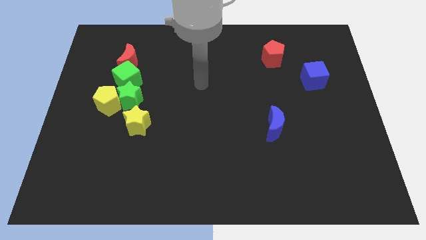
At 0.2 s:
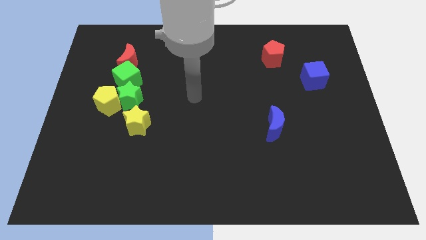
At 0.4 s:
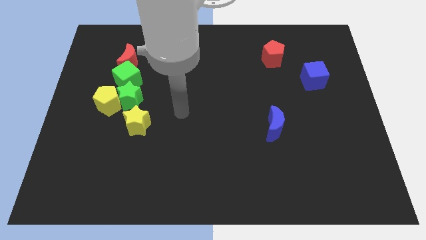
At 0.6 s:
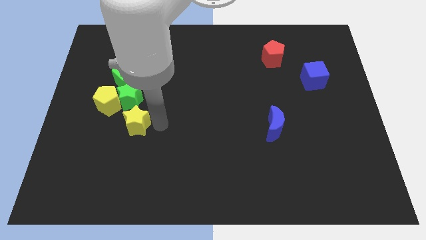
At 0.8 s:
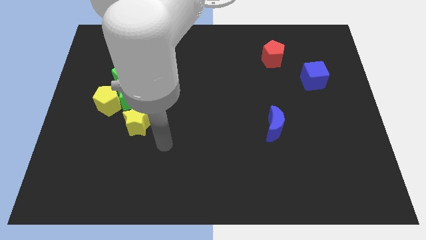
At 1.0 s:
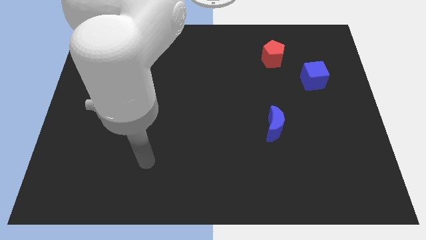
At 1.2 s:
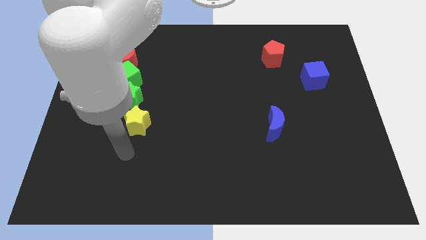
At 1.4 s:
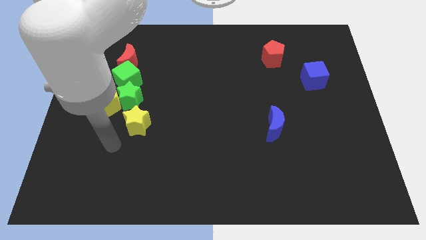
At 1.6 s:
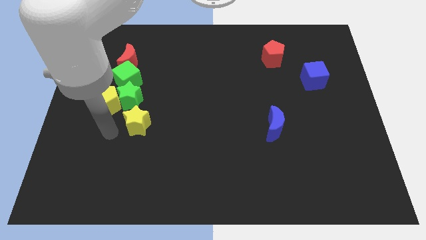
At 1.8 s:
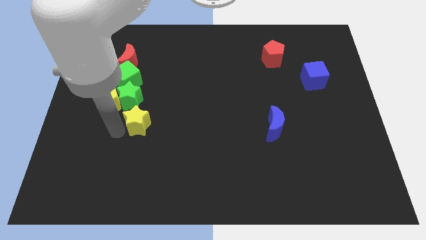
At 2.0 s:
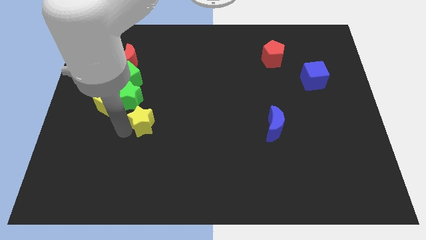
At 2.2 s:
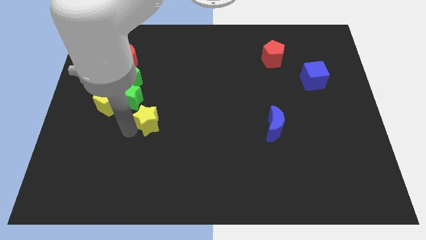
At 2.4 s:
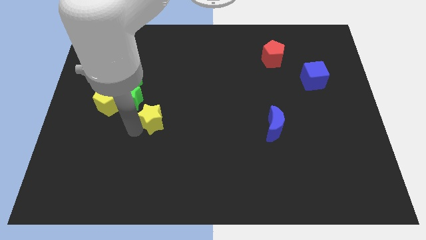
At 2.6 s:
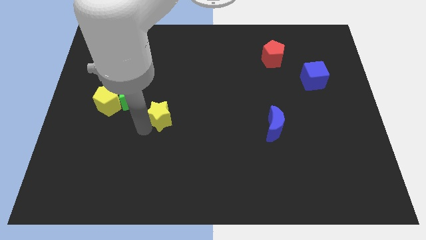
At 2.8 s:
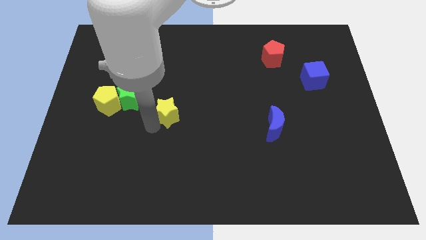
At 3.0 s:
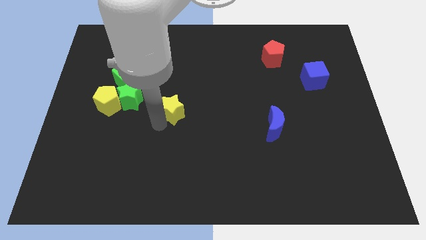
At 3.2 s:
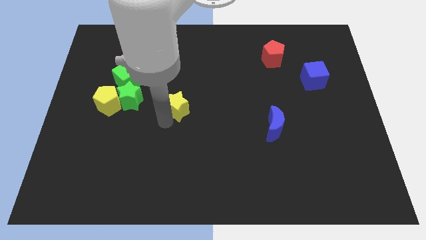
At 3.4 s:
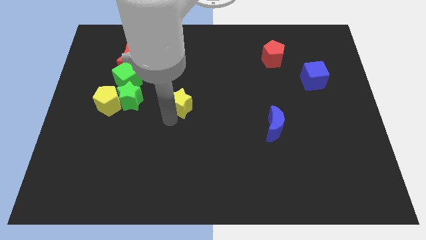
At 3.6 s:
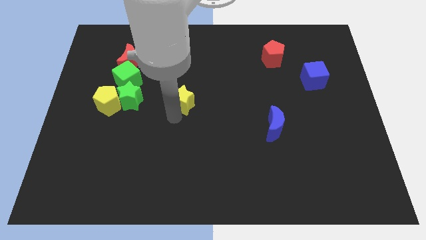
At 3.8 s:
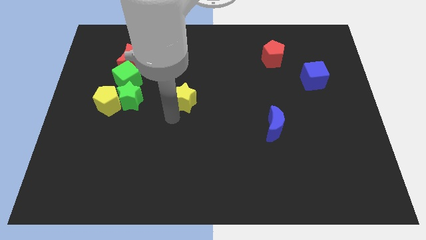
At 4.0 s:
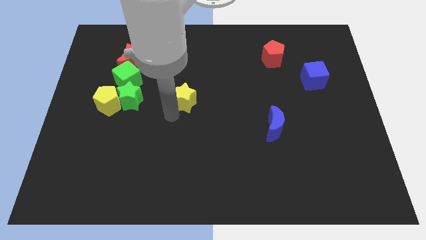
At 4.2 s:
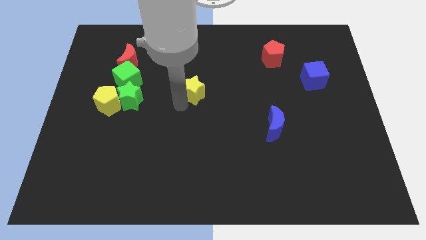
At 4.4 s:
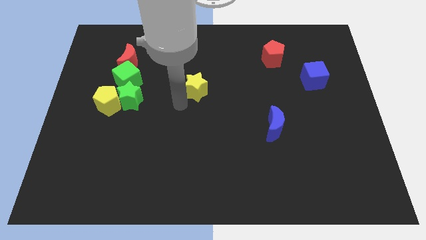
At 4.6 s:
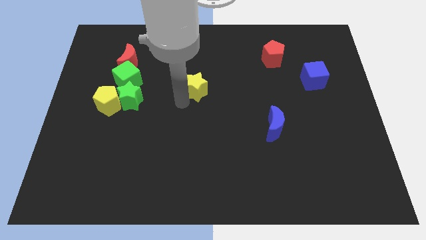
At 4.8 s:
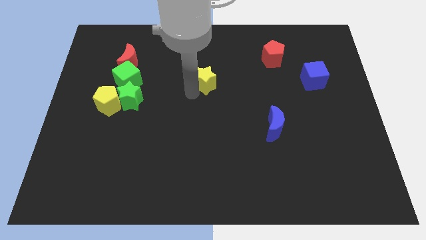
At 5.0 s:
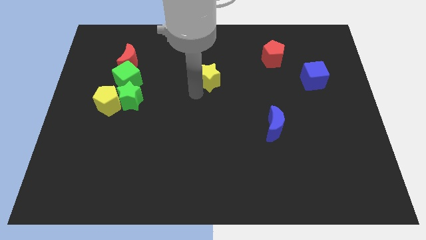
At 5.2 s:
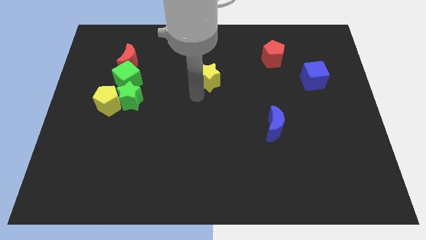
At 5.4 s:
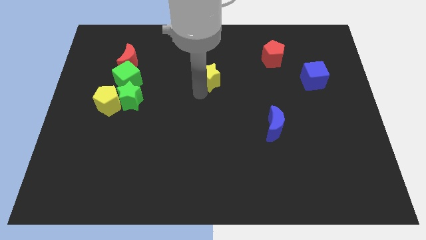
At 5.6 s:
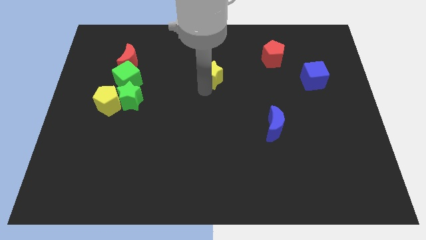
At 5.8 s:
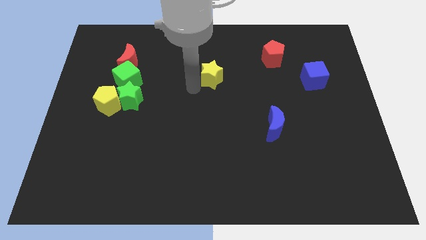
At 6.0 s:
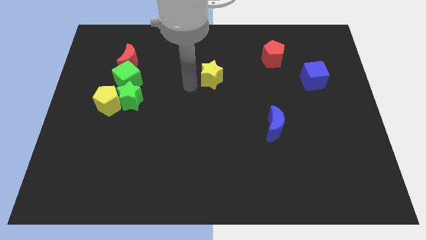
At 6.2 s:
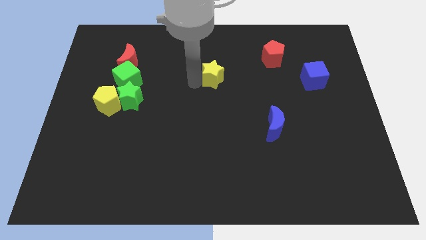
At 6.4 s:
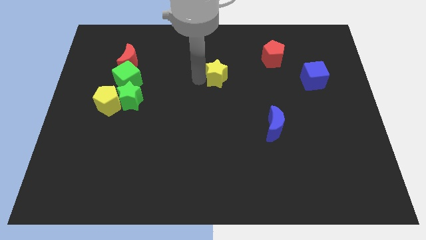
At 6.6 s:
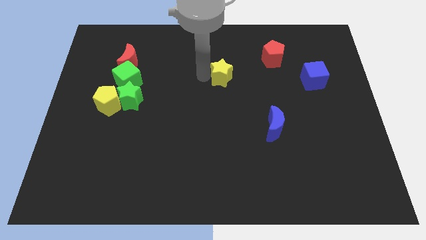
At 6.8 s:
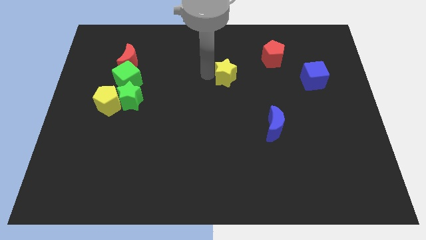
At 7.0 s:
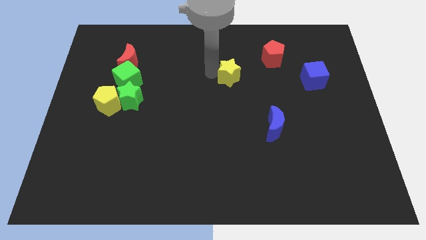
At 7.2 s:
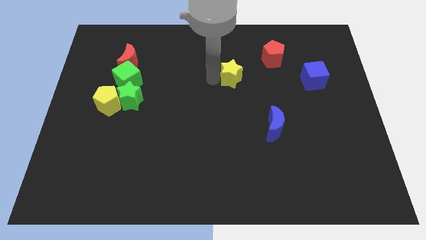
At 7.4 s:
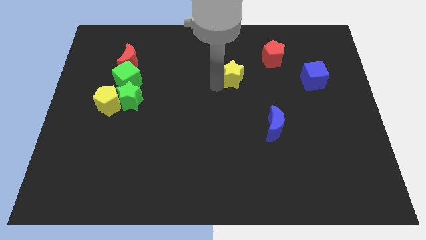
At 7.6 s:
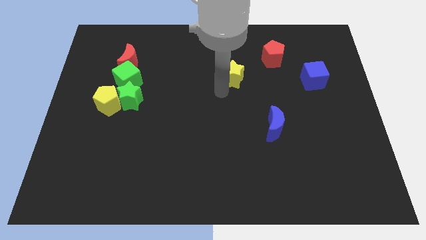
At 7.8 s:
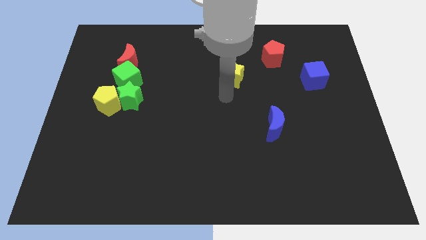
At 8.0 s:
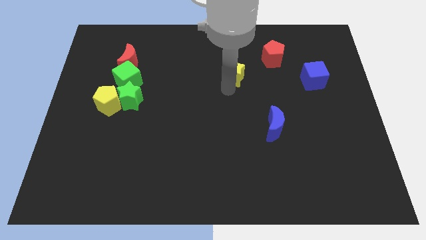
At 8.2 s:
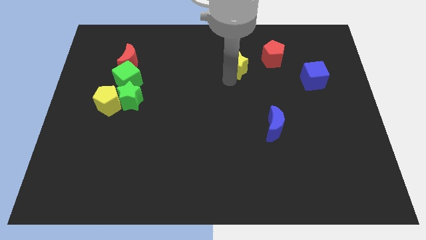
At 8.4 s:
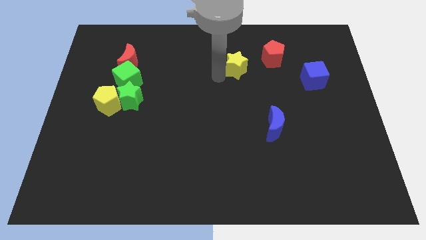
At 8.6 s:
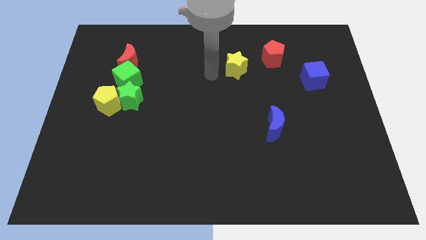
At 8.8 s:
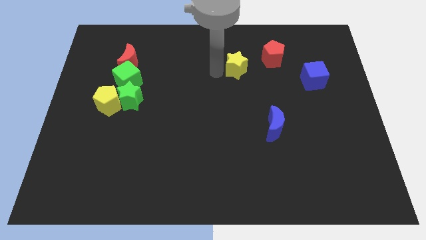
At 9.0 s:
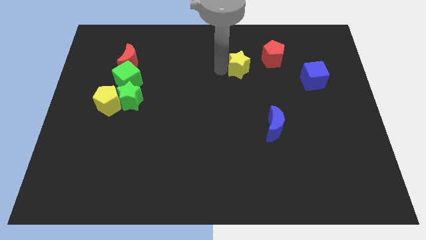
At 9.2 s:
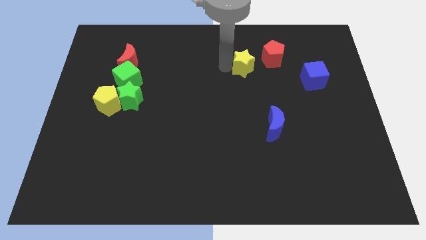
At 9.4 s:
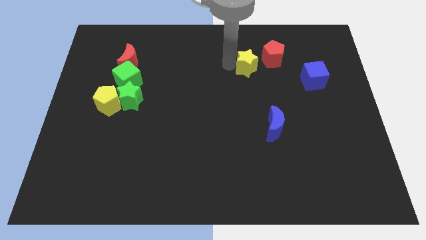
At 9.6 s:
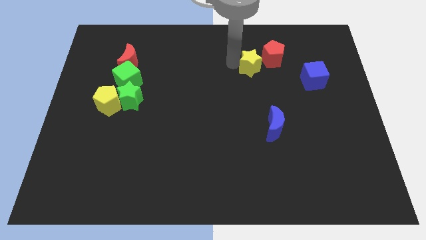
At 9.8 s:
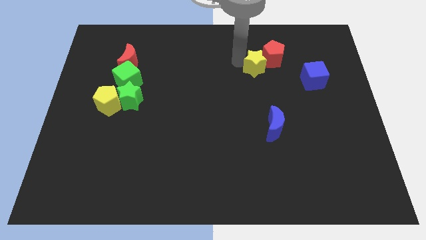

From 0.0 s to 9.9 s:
push the yellow star close to the red pentagon

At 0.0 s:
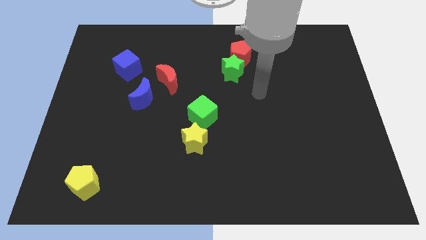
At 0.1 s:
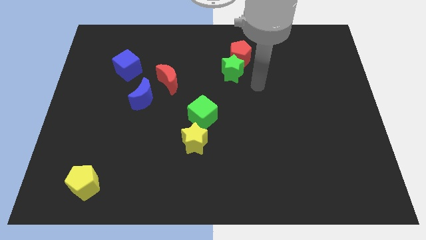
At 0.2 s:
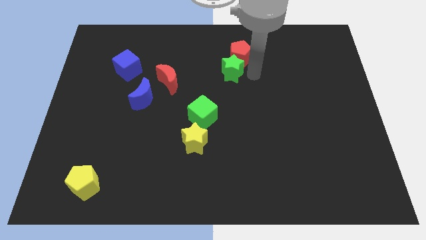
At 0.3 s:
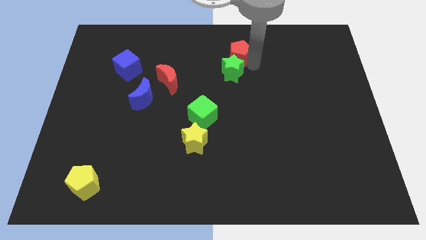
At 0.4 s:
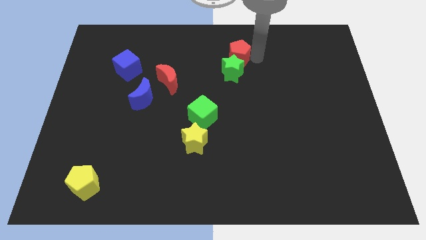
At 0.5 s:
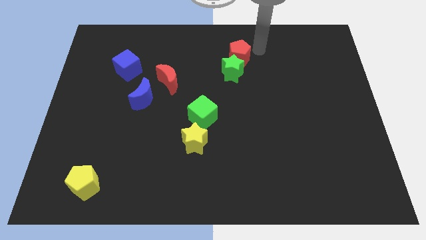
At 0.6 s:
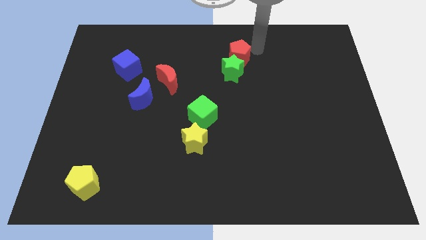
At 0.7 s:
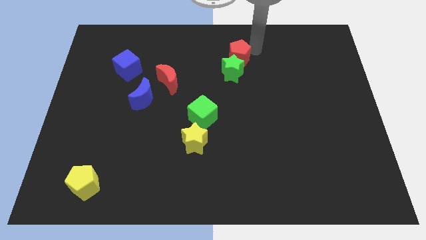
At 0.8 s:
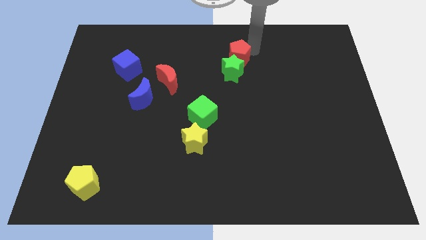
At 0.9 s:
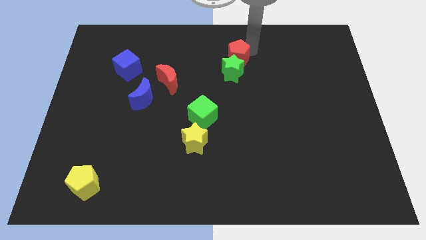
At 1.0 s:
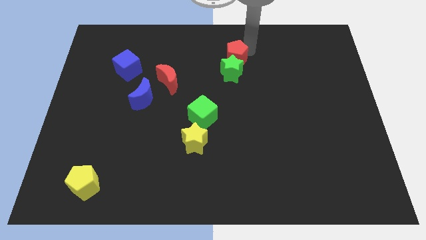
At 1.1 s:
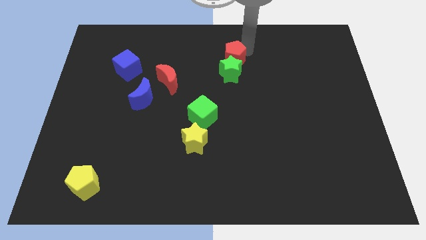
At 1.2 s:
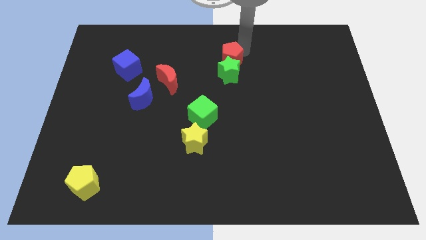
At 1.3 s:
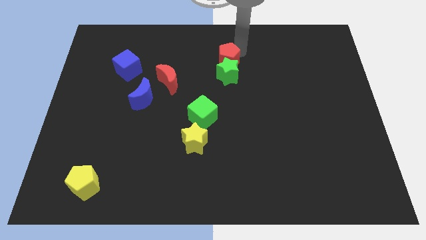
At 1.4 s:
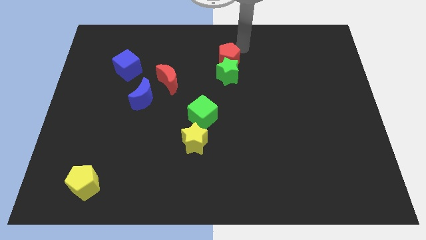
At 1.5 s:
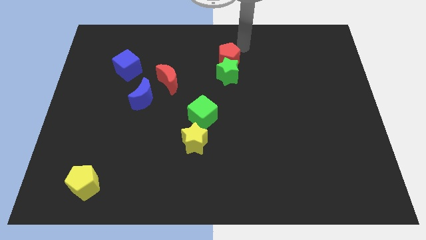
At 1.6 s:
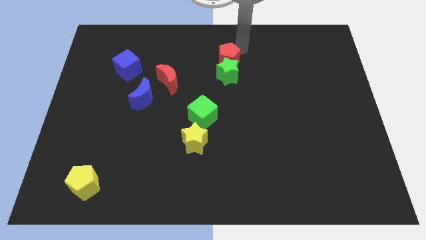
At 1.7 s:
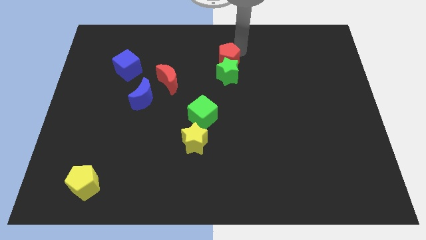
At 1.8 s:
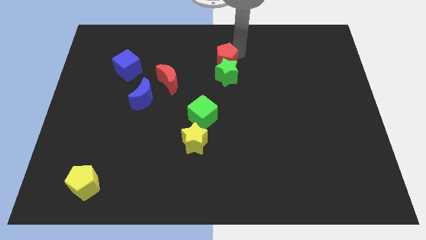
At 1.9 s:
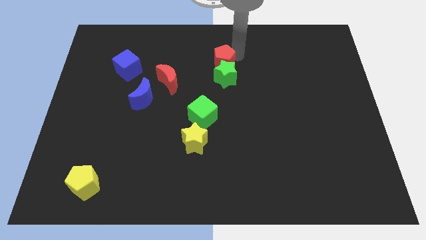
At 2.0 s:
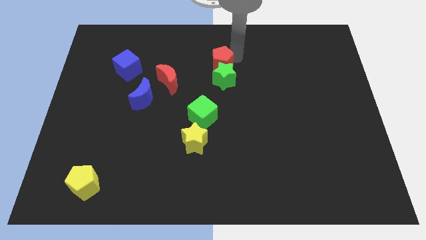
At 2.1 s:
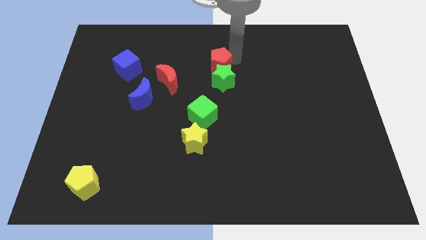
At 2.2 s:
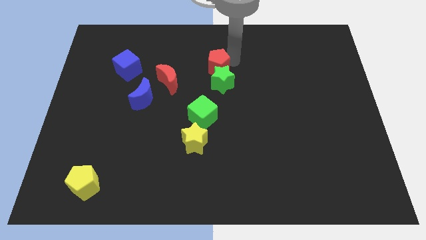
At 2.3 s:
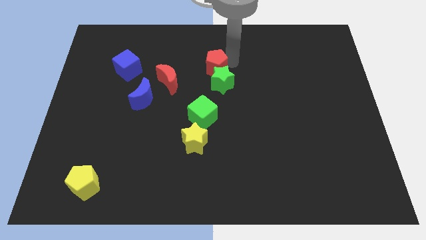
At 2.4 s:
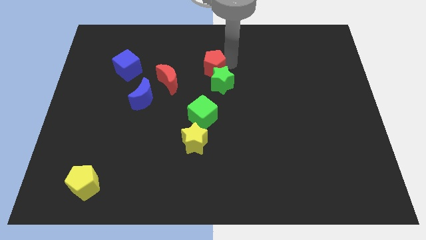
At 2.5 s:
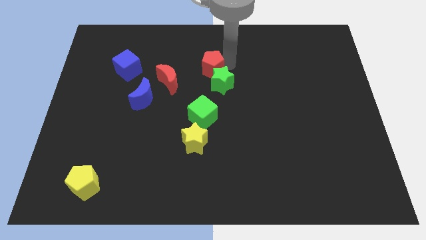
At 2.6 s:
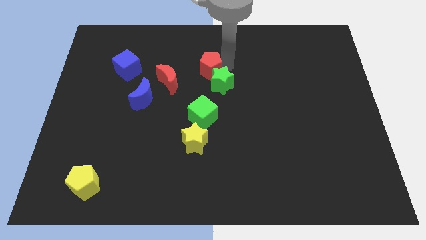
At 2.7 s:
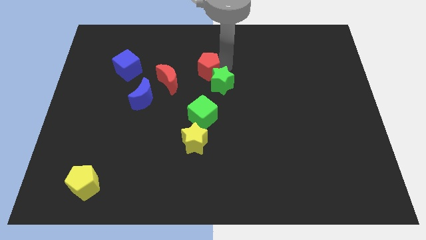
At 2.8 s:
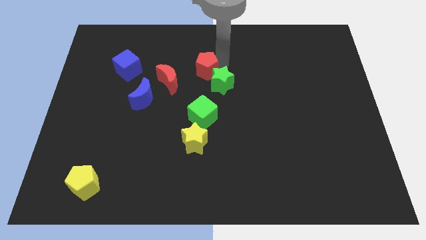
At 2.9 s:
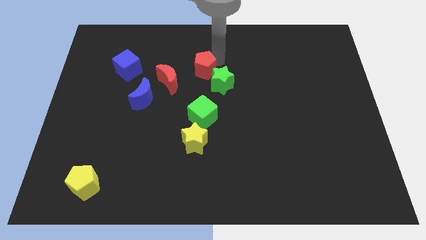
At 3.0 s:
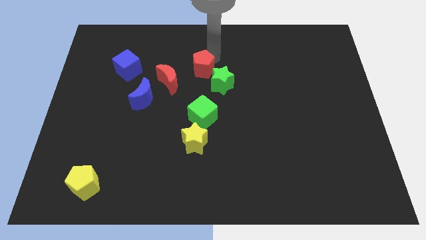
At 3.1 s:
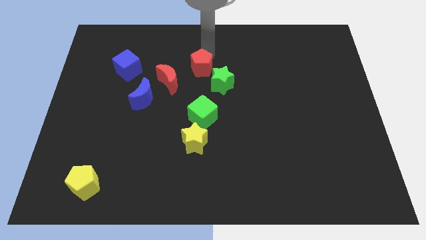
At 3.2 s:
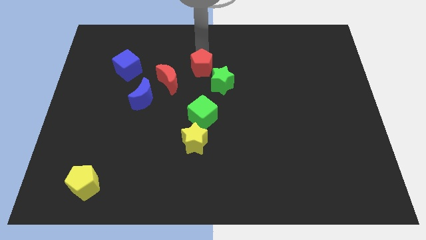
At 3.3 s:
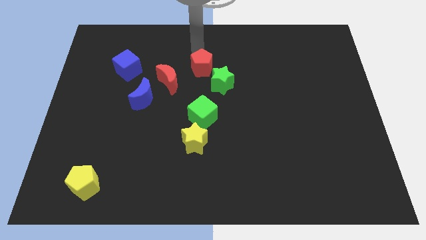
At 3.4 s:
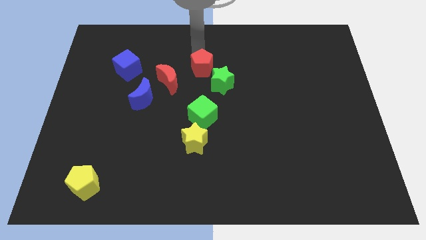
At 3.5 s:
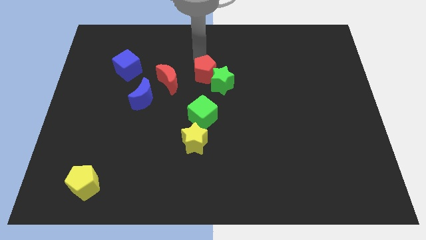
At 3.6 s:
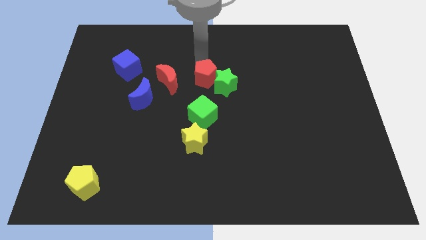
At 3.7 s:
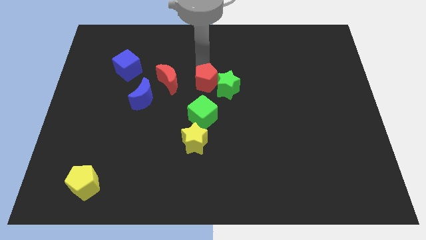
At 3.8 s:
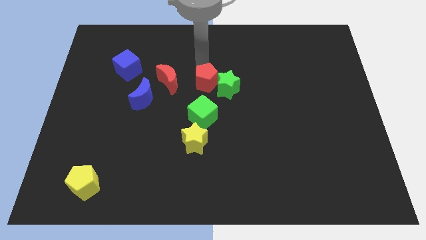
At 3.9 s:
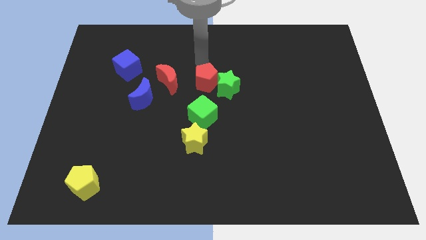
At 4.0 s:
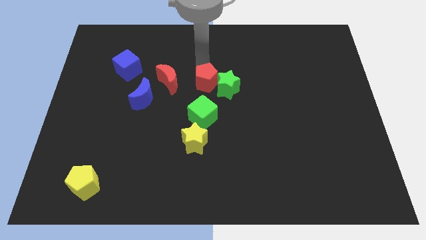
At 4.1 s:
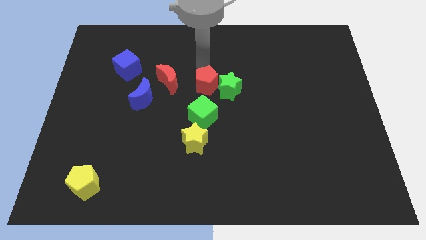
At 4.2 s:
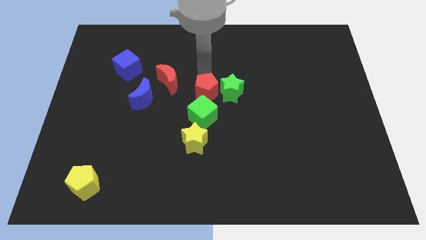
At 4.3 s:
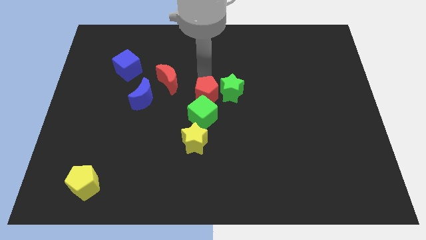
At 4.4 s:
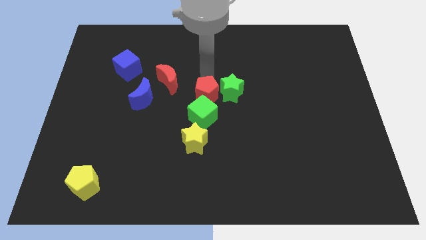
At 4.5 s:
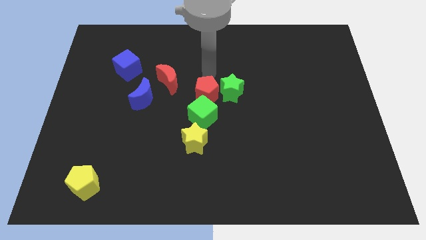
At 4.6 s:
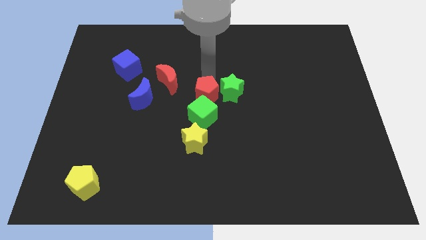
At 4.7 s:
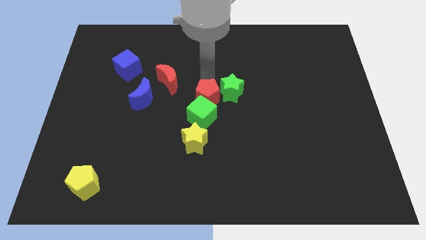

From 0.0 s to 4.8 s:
move the red pentagon to the green cube
